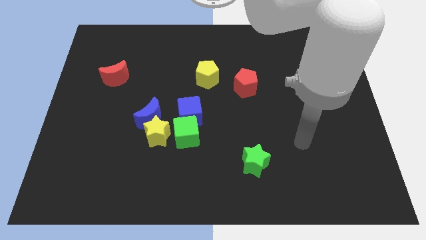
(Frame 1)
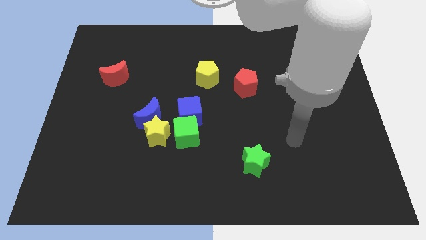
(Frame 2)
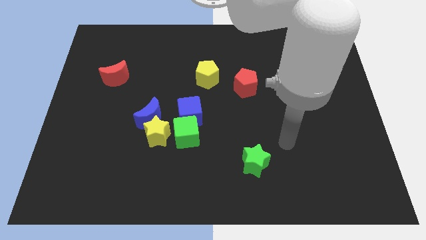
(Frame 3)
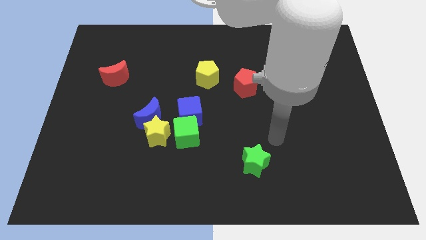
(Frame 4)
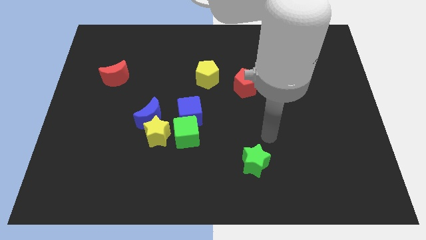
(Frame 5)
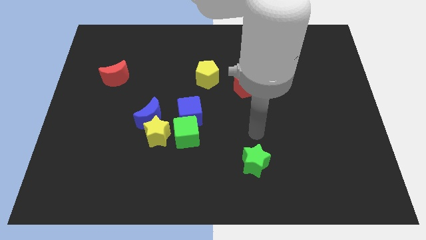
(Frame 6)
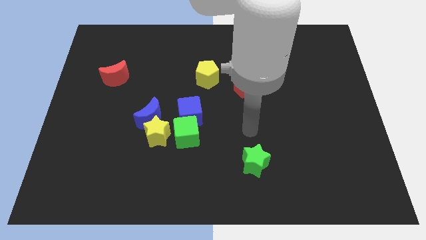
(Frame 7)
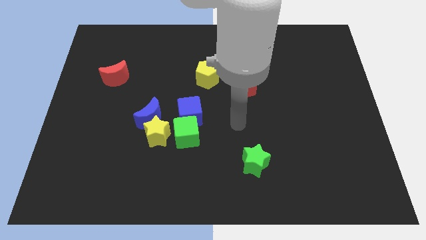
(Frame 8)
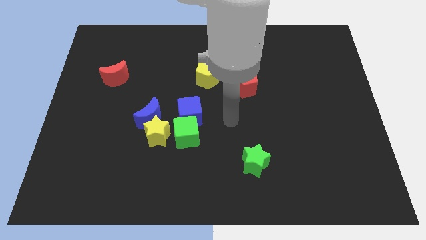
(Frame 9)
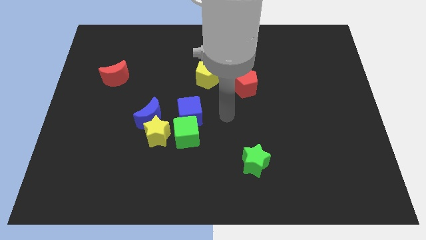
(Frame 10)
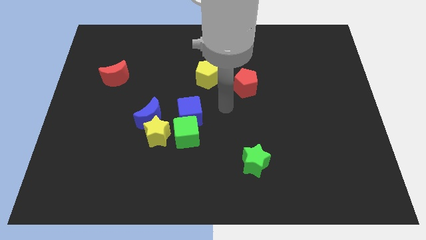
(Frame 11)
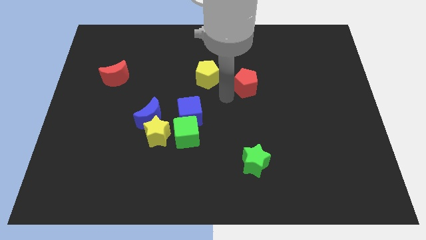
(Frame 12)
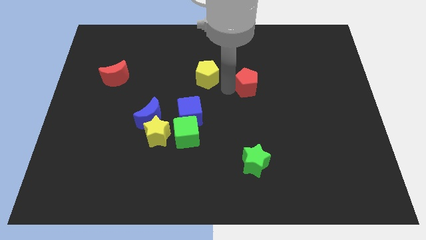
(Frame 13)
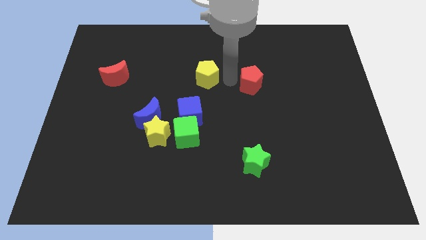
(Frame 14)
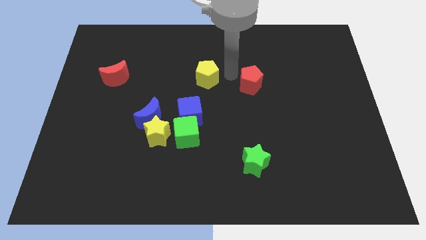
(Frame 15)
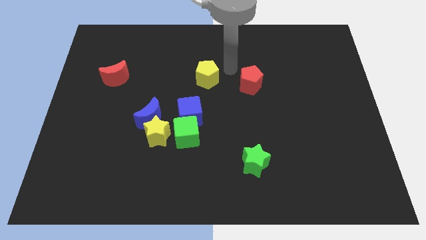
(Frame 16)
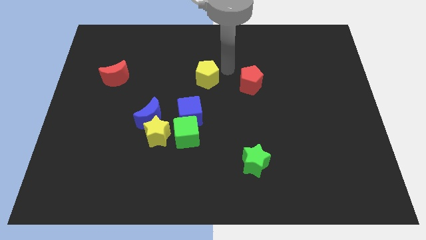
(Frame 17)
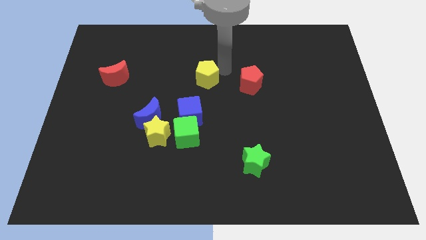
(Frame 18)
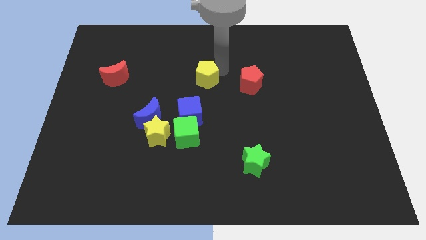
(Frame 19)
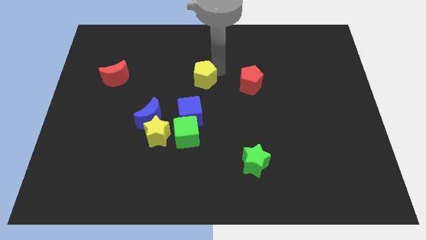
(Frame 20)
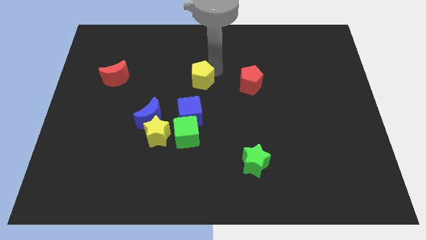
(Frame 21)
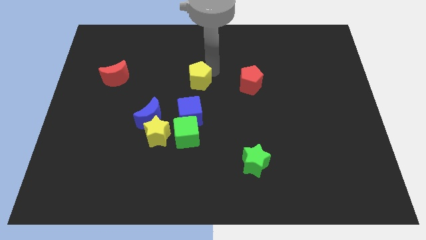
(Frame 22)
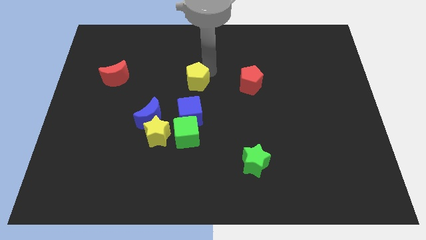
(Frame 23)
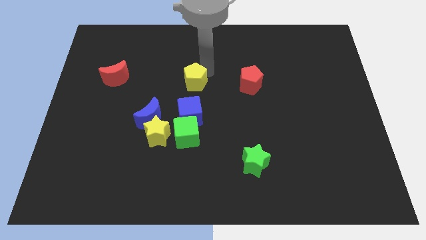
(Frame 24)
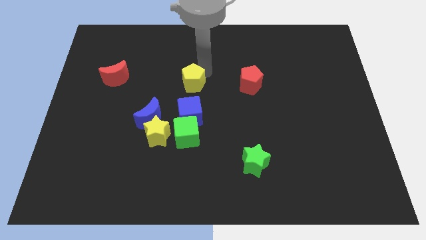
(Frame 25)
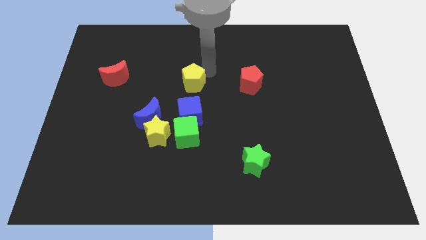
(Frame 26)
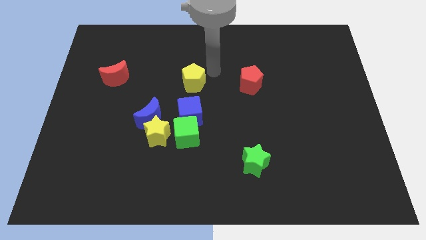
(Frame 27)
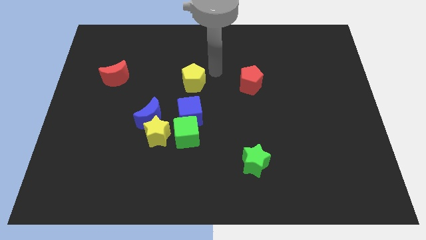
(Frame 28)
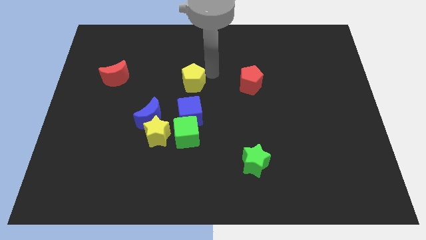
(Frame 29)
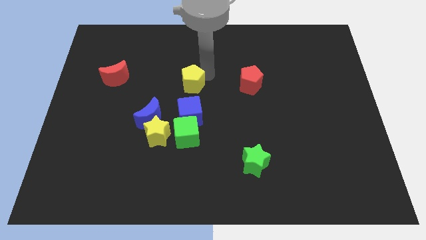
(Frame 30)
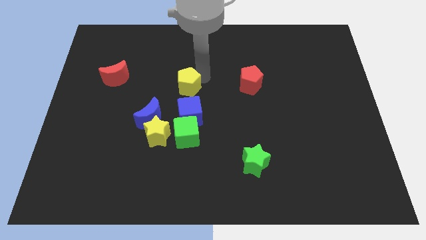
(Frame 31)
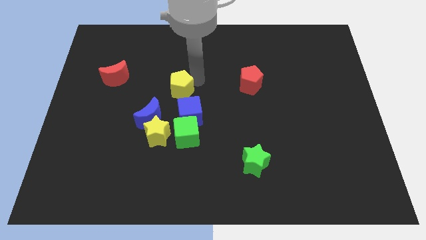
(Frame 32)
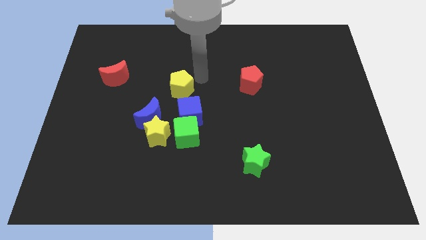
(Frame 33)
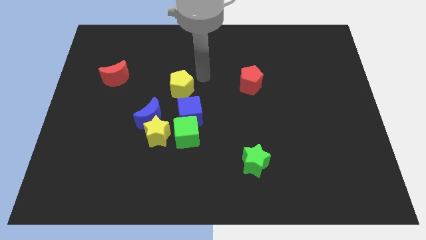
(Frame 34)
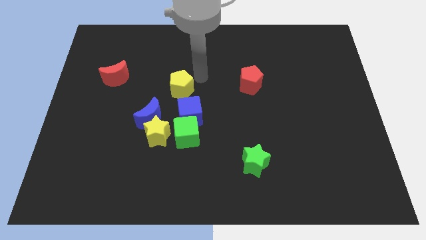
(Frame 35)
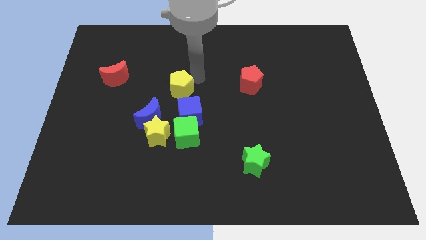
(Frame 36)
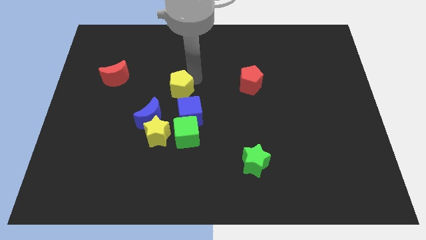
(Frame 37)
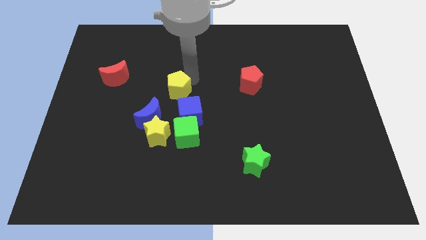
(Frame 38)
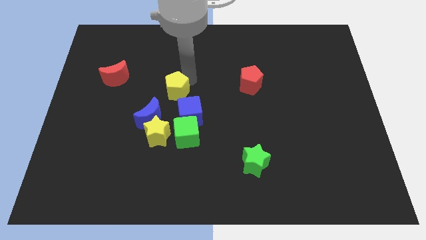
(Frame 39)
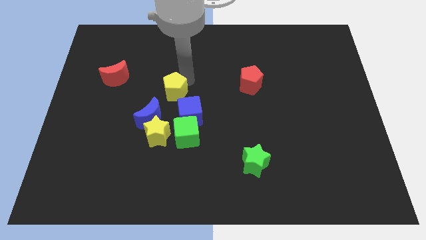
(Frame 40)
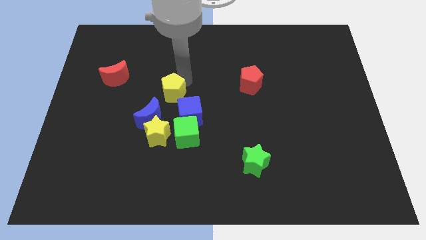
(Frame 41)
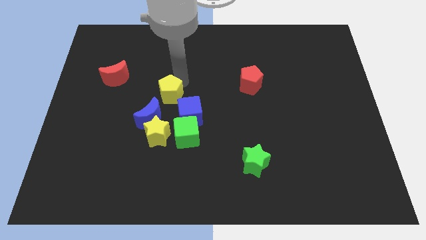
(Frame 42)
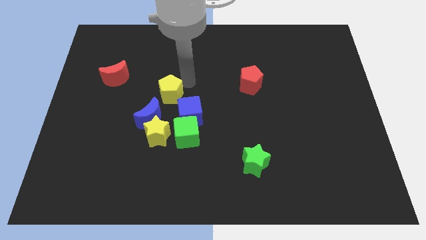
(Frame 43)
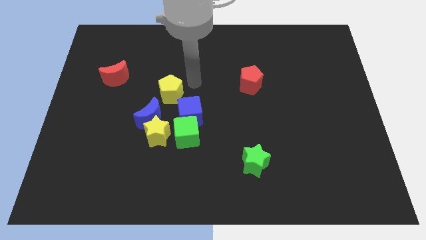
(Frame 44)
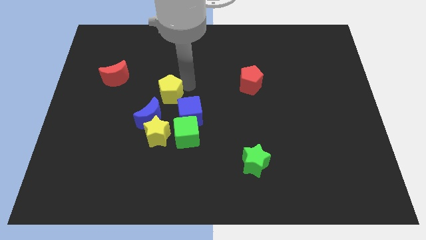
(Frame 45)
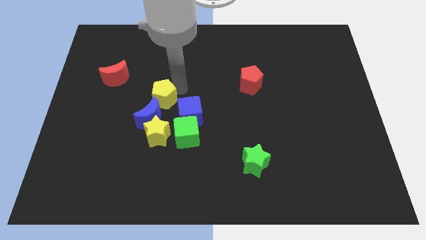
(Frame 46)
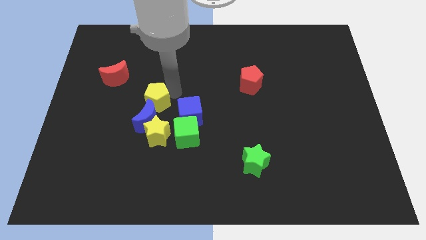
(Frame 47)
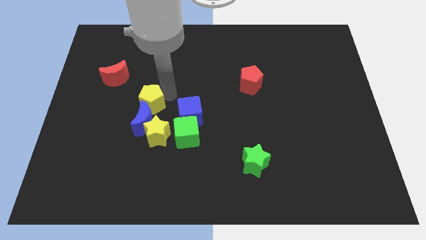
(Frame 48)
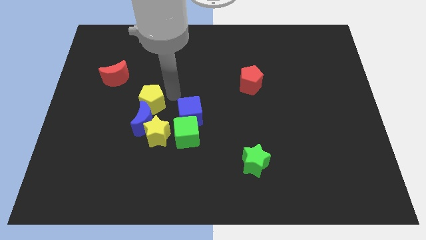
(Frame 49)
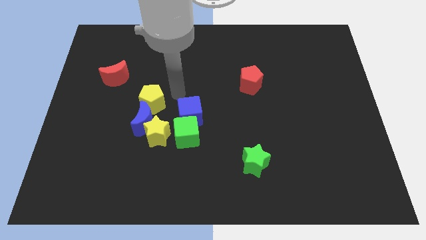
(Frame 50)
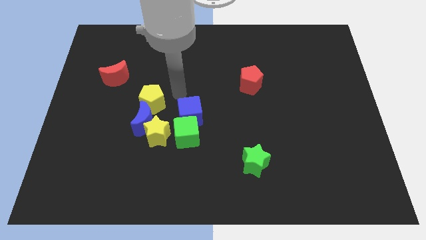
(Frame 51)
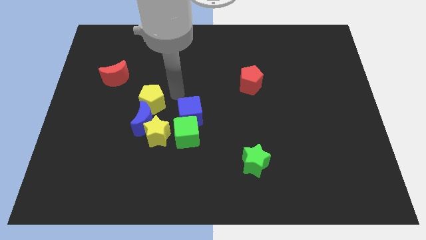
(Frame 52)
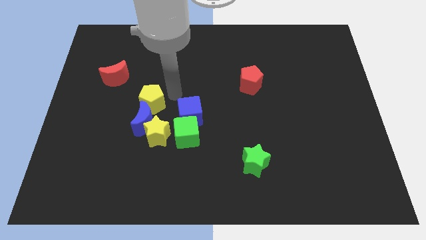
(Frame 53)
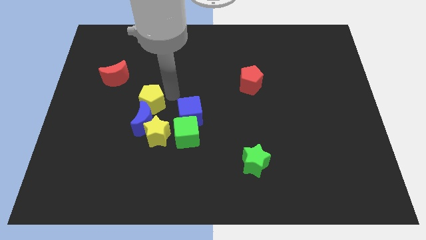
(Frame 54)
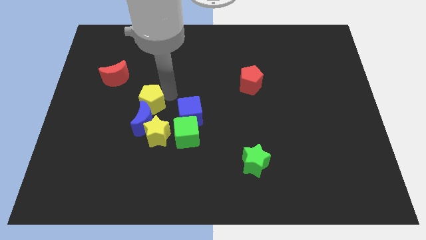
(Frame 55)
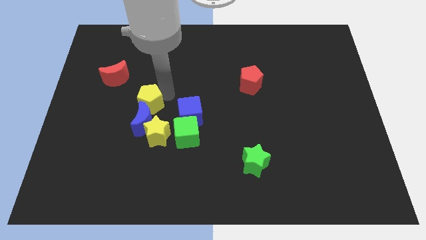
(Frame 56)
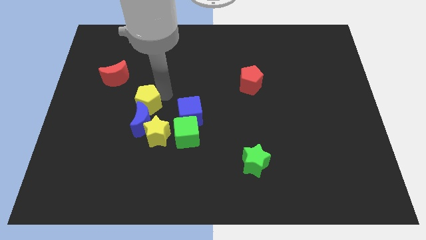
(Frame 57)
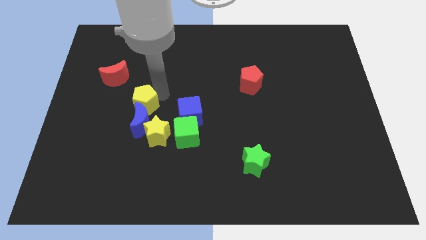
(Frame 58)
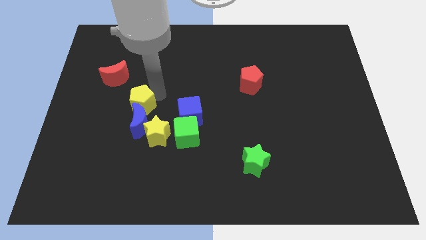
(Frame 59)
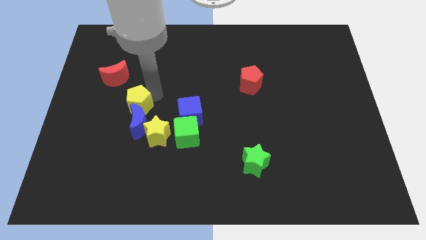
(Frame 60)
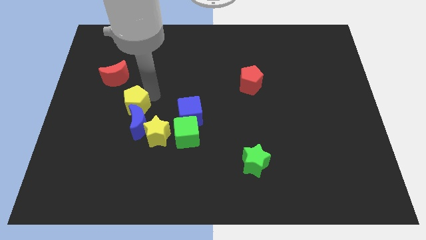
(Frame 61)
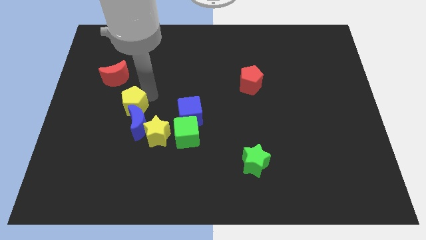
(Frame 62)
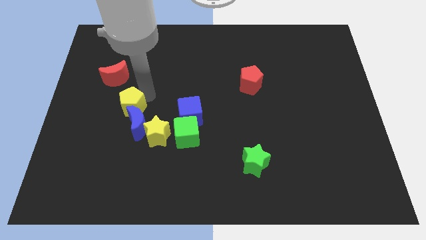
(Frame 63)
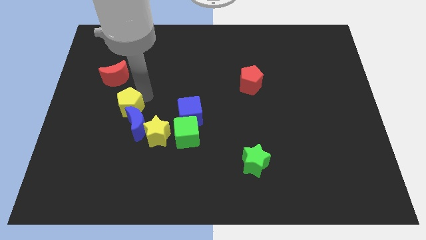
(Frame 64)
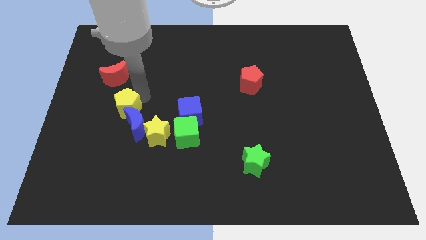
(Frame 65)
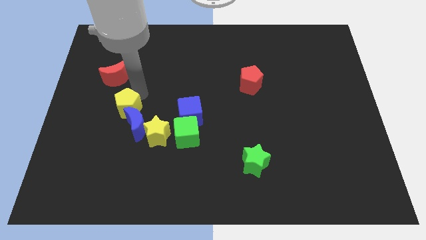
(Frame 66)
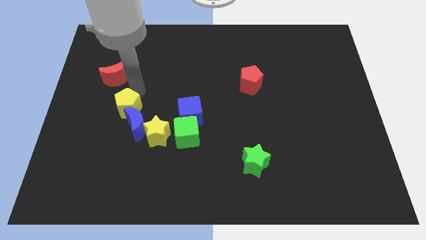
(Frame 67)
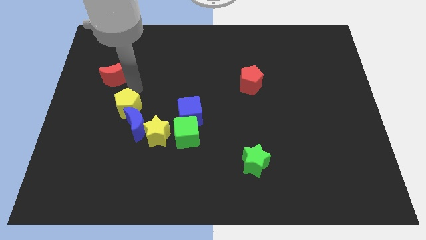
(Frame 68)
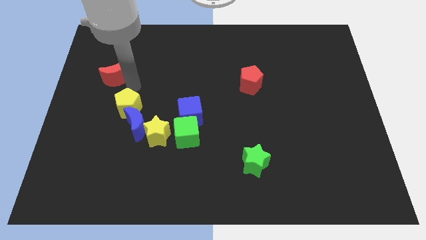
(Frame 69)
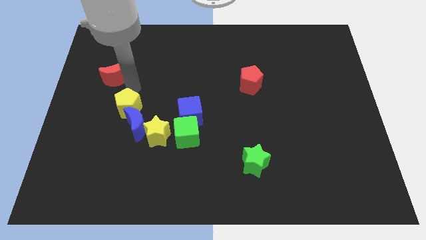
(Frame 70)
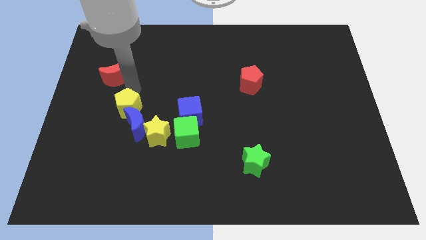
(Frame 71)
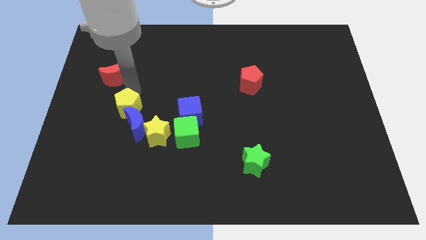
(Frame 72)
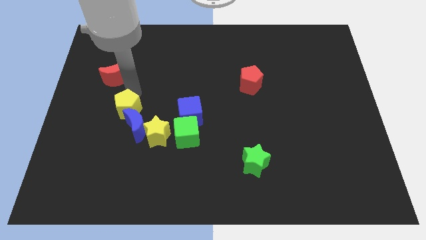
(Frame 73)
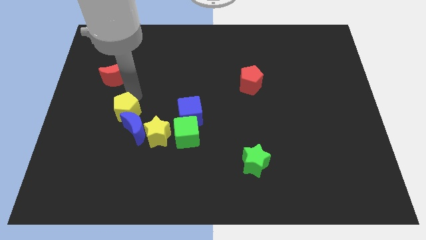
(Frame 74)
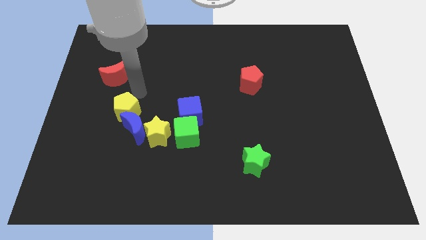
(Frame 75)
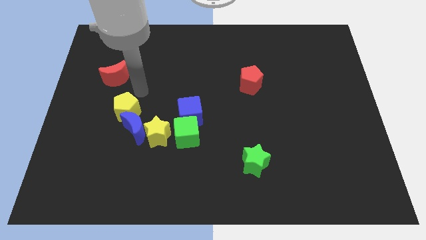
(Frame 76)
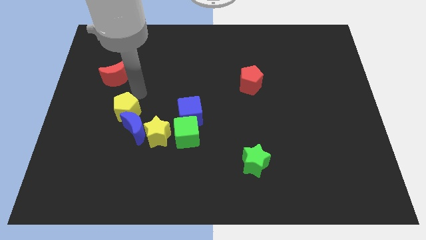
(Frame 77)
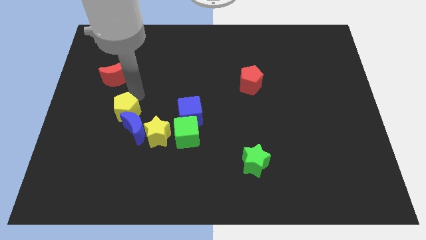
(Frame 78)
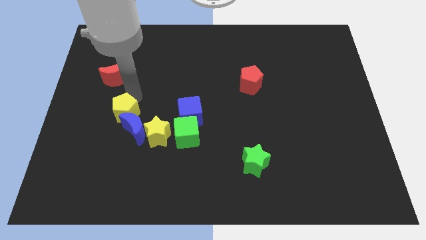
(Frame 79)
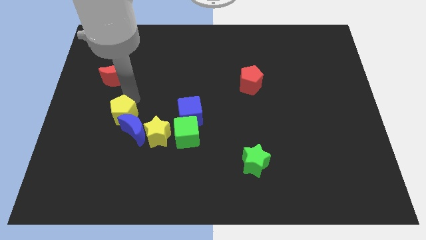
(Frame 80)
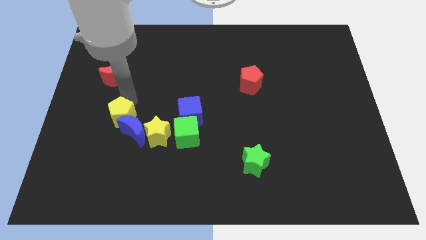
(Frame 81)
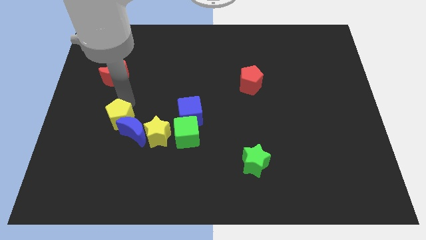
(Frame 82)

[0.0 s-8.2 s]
push the yellow pentagon to the left side of the yellow star
